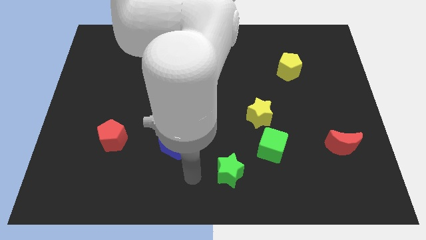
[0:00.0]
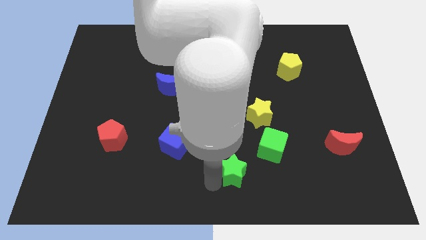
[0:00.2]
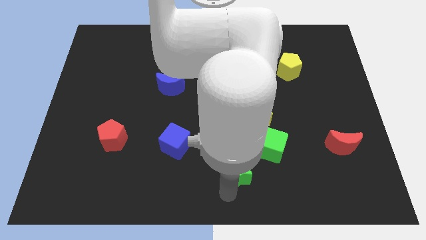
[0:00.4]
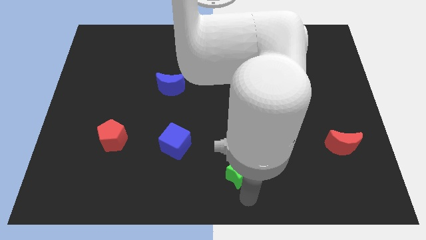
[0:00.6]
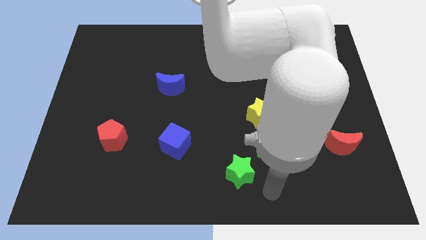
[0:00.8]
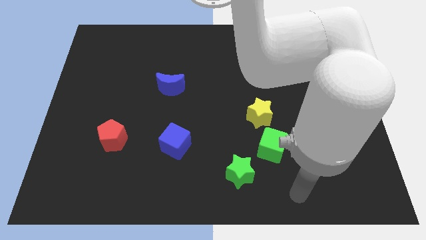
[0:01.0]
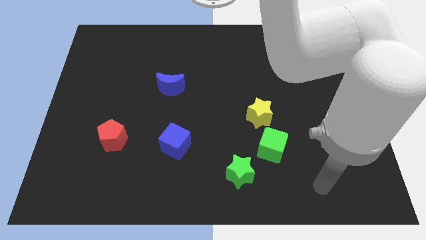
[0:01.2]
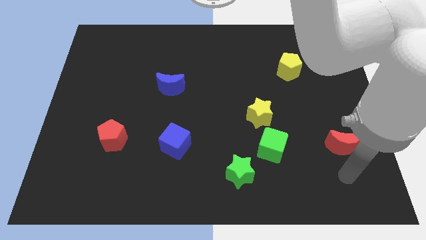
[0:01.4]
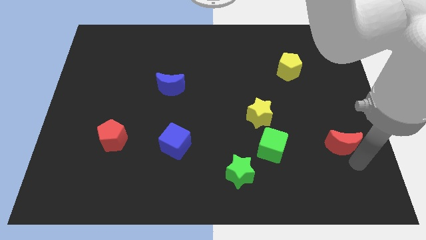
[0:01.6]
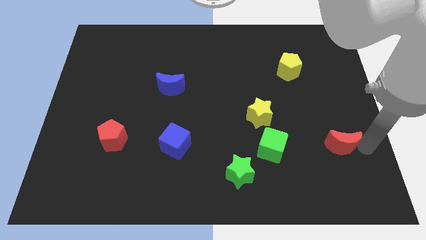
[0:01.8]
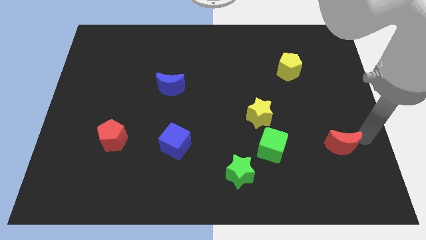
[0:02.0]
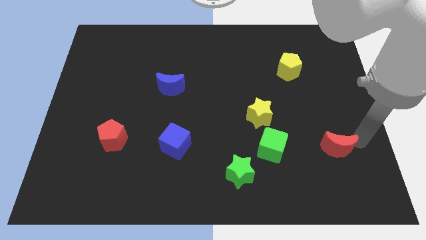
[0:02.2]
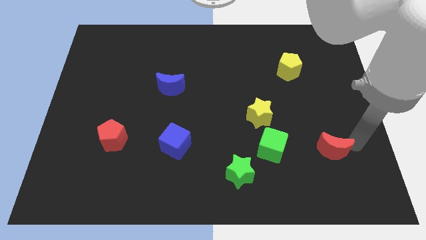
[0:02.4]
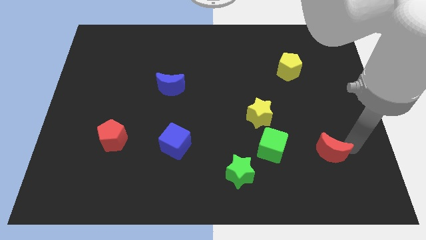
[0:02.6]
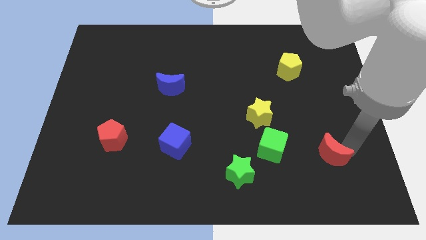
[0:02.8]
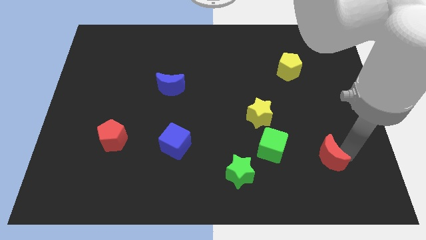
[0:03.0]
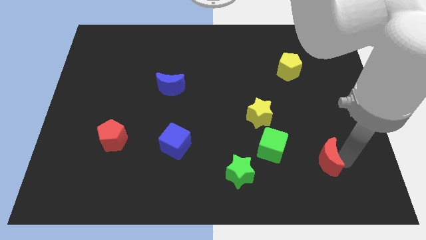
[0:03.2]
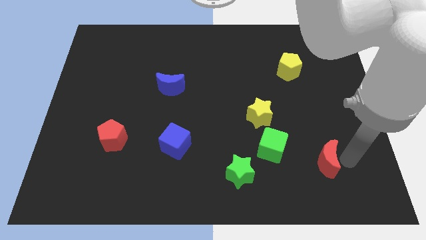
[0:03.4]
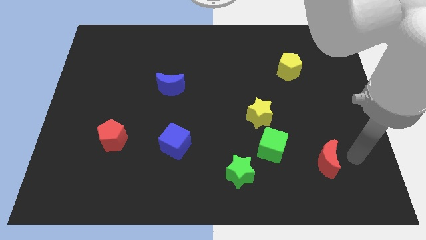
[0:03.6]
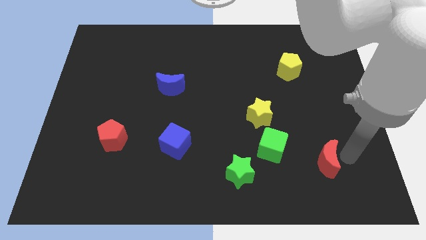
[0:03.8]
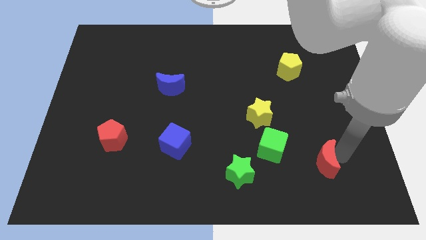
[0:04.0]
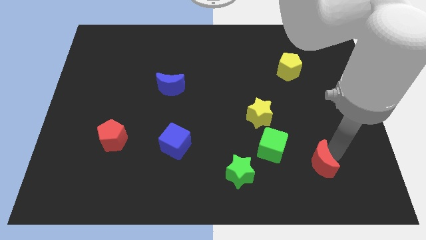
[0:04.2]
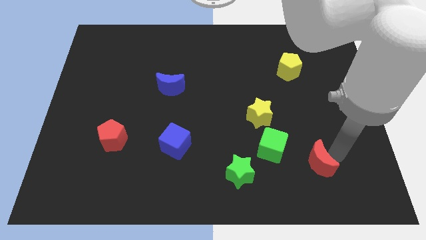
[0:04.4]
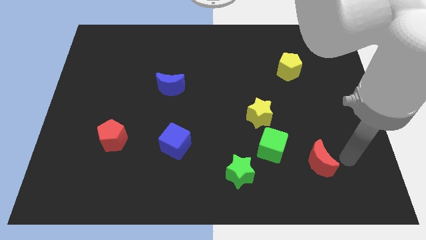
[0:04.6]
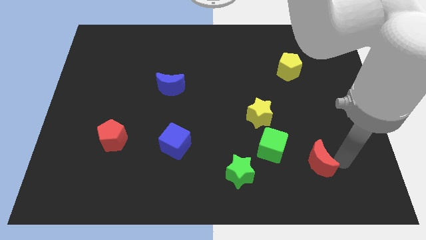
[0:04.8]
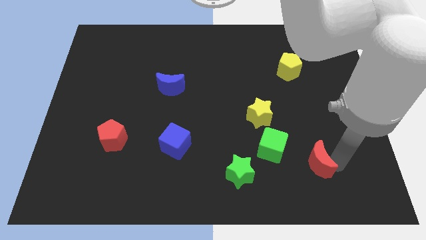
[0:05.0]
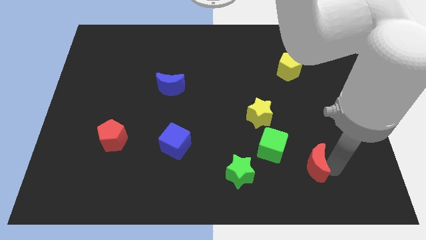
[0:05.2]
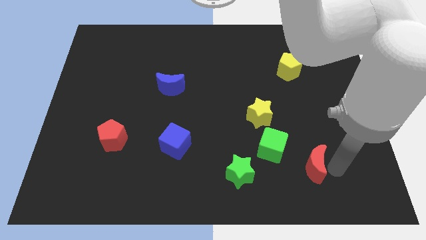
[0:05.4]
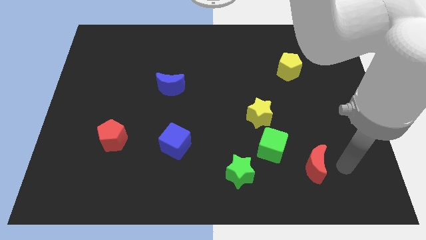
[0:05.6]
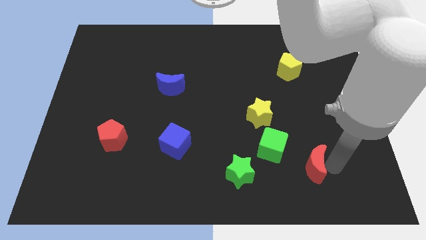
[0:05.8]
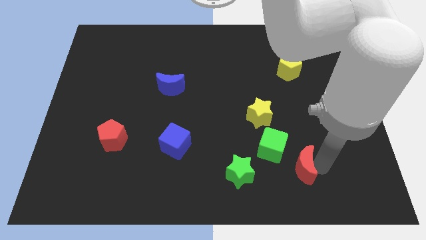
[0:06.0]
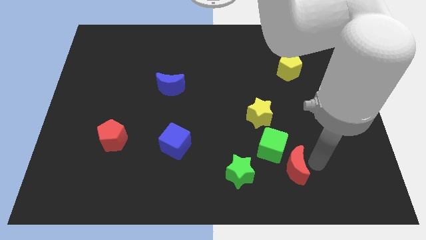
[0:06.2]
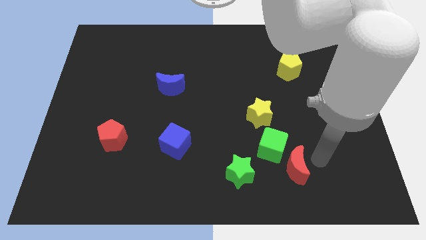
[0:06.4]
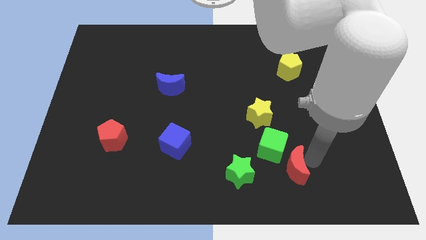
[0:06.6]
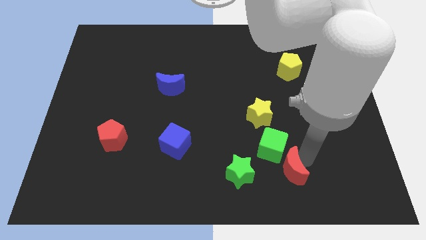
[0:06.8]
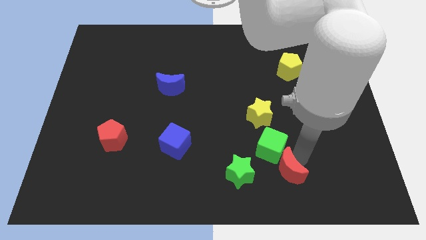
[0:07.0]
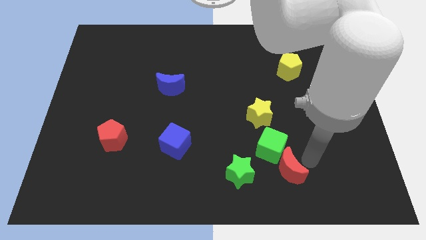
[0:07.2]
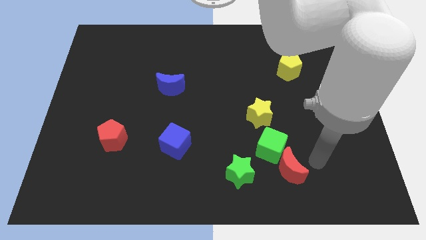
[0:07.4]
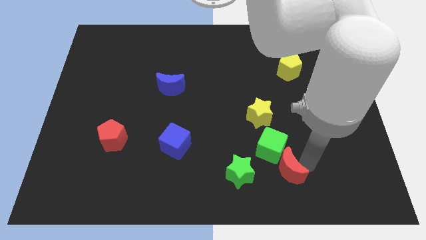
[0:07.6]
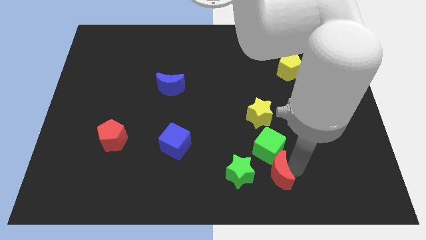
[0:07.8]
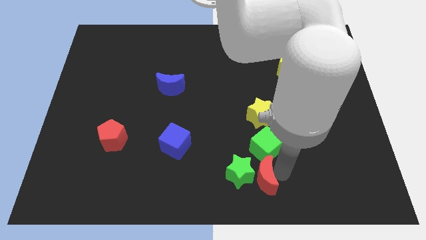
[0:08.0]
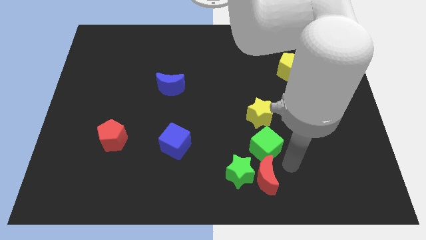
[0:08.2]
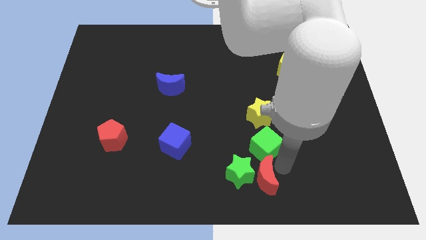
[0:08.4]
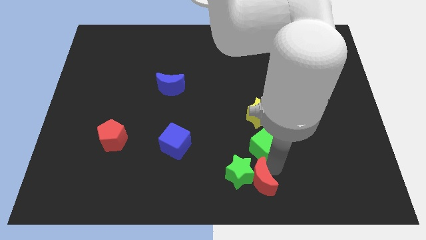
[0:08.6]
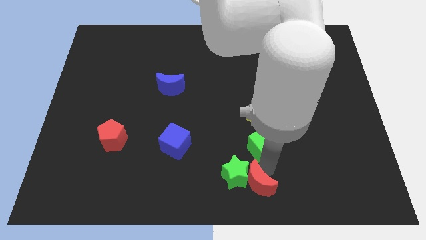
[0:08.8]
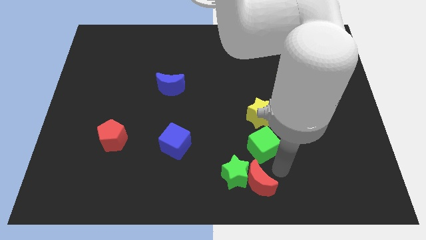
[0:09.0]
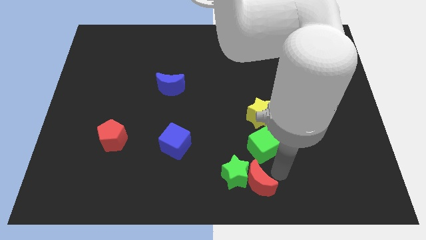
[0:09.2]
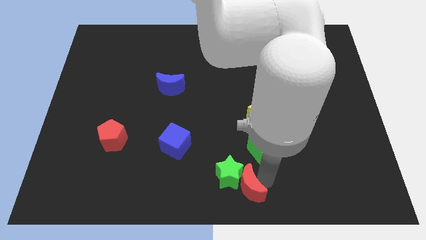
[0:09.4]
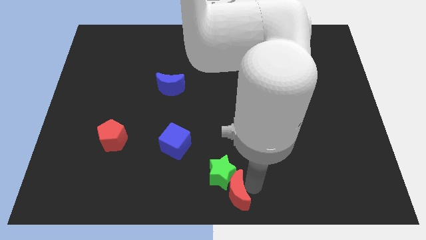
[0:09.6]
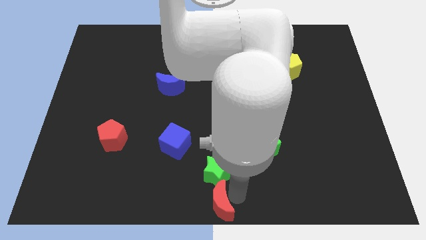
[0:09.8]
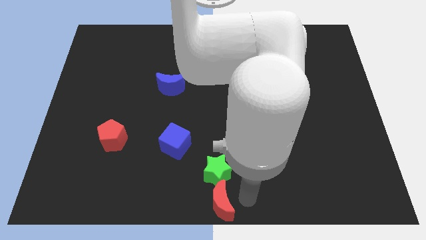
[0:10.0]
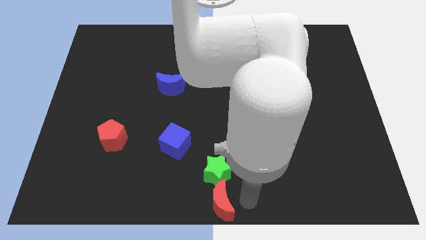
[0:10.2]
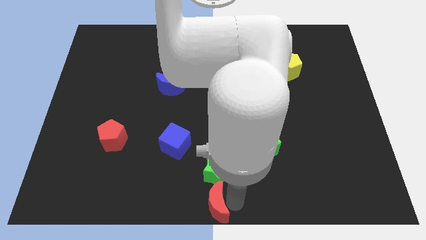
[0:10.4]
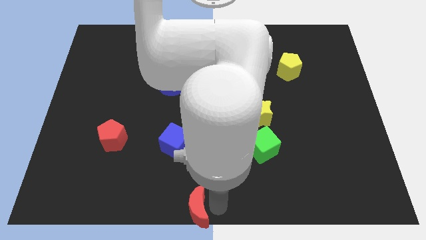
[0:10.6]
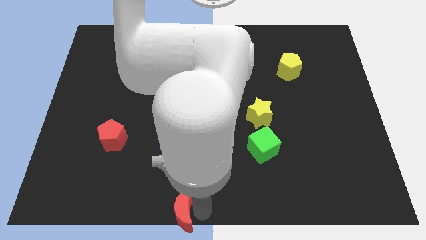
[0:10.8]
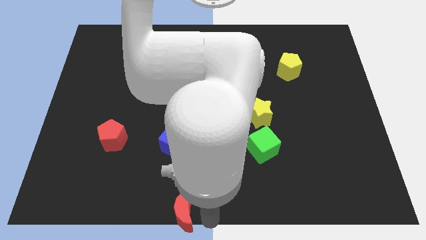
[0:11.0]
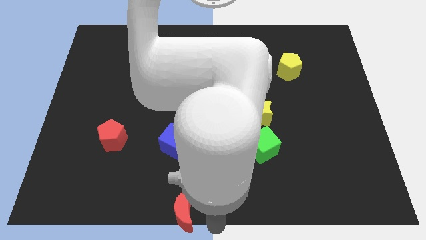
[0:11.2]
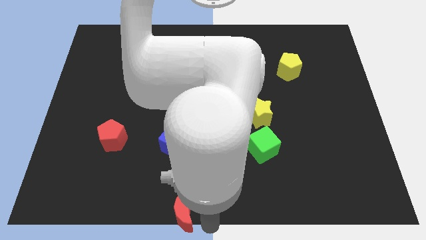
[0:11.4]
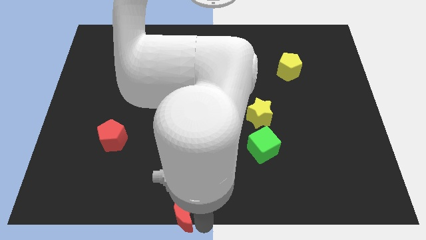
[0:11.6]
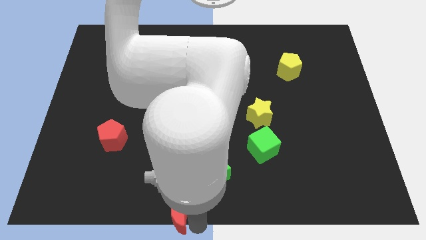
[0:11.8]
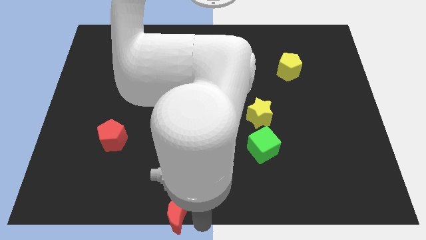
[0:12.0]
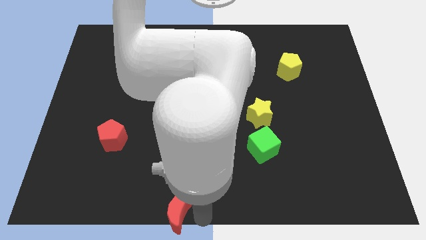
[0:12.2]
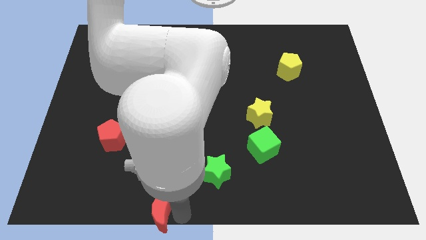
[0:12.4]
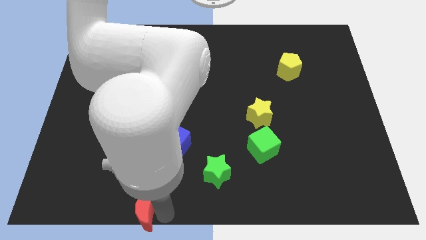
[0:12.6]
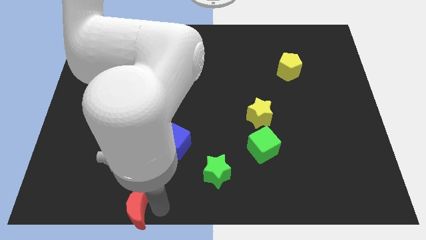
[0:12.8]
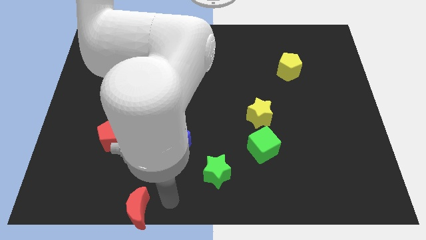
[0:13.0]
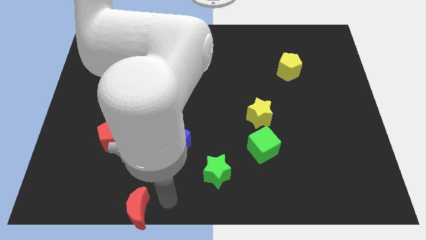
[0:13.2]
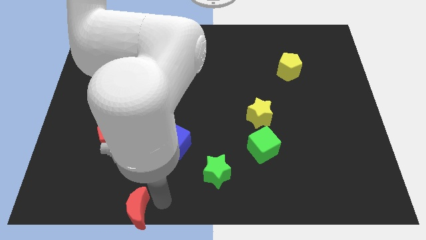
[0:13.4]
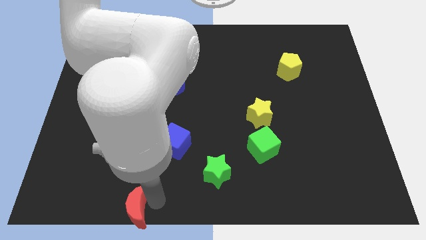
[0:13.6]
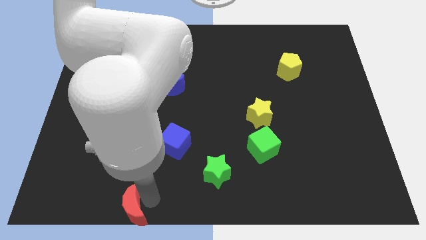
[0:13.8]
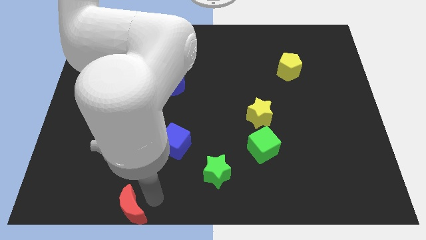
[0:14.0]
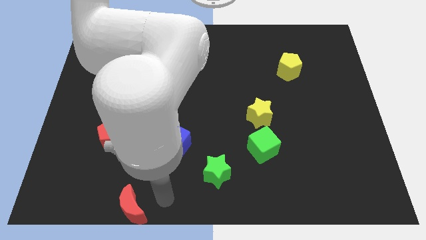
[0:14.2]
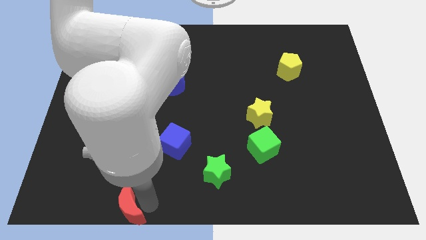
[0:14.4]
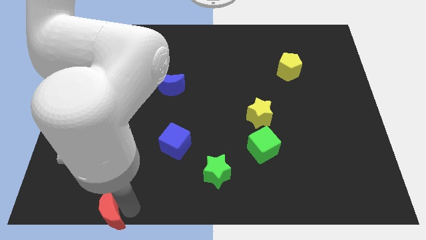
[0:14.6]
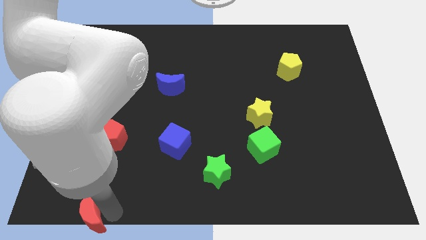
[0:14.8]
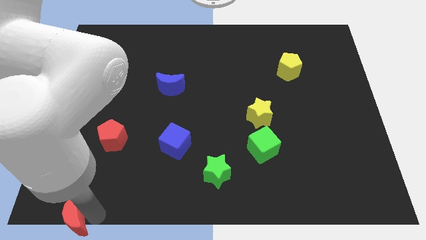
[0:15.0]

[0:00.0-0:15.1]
slide the red moon to the bottom left of the board
